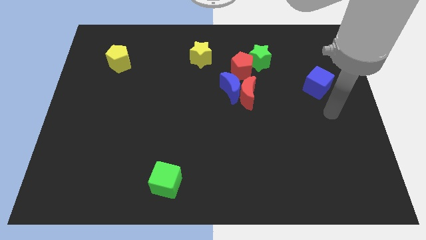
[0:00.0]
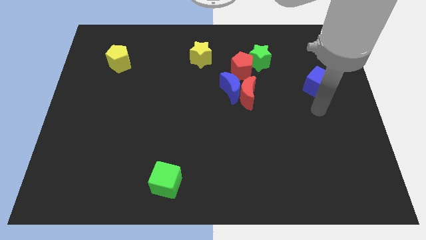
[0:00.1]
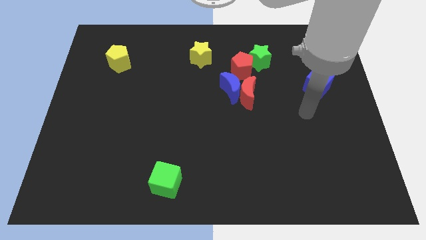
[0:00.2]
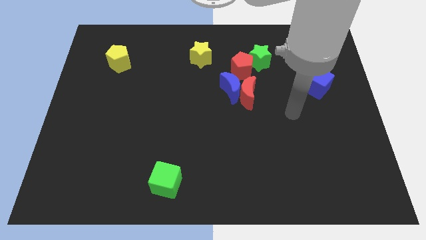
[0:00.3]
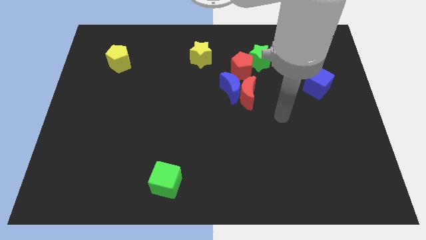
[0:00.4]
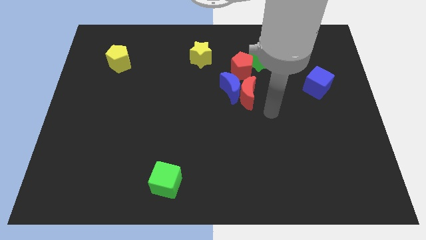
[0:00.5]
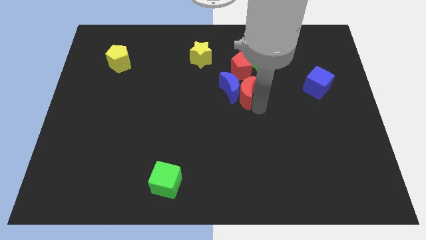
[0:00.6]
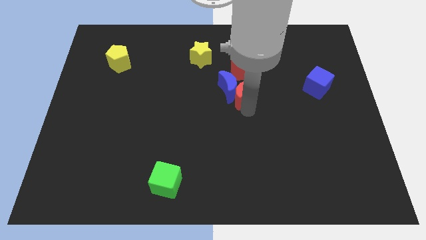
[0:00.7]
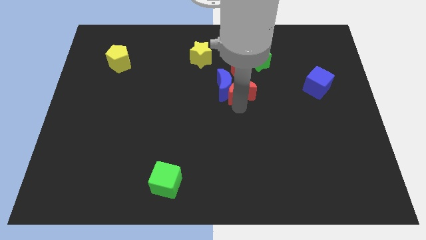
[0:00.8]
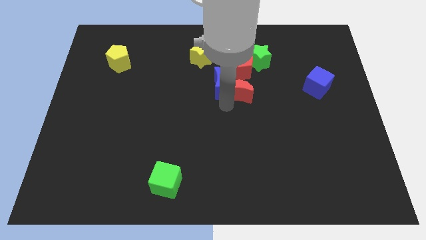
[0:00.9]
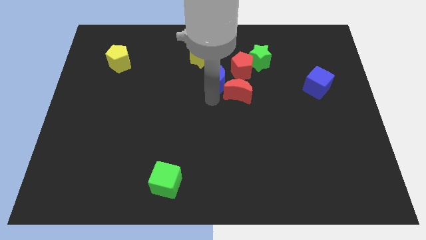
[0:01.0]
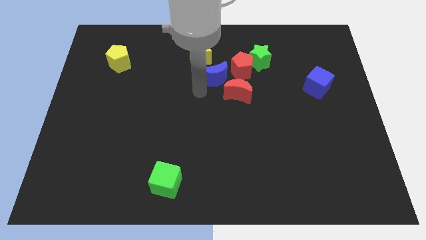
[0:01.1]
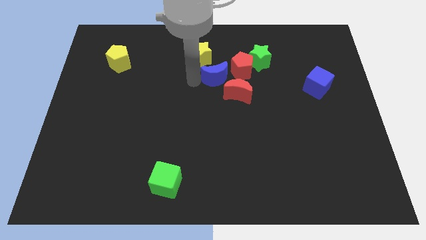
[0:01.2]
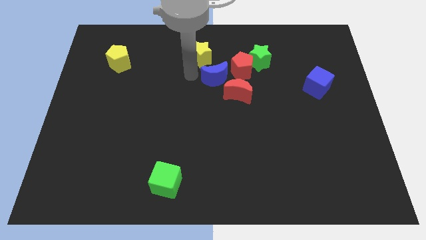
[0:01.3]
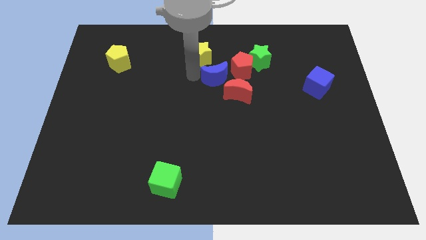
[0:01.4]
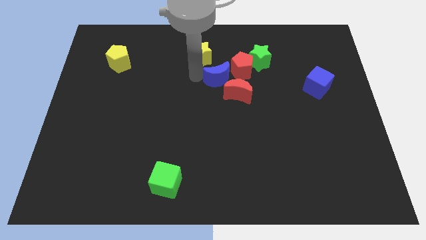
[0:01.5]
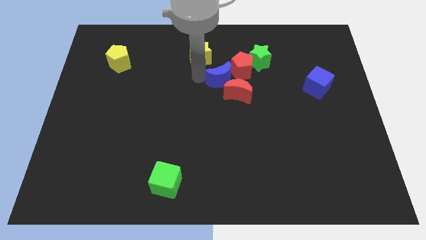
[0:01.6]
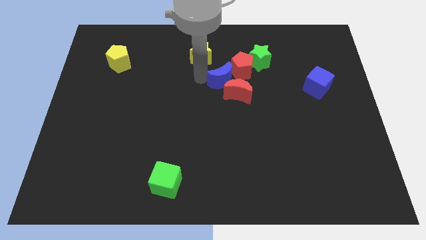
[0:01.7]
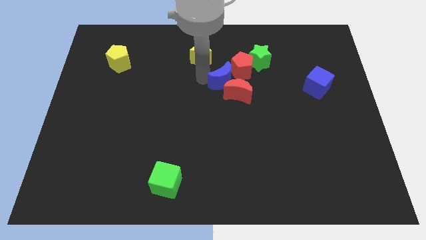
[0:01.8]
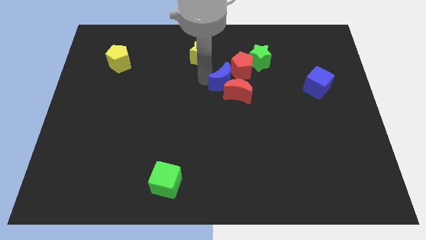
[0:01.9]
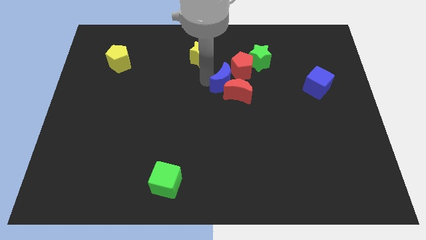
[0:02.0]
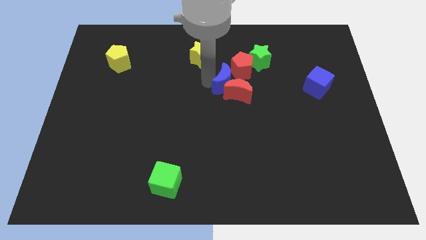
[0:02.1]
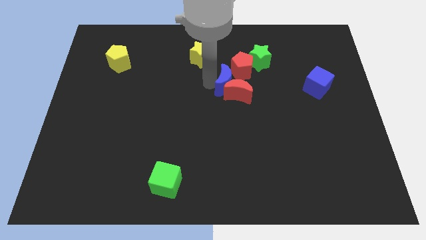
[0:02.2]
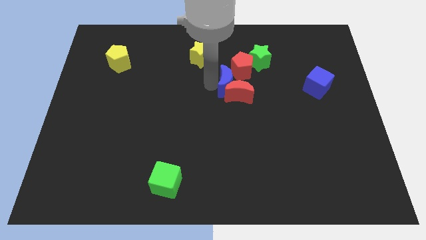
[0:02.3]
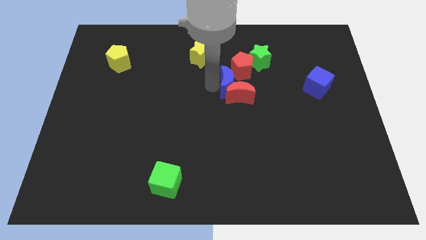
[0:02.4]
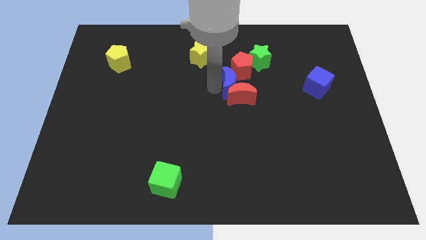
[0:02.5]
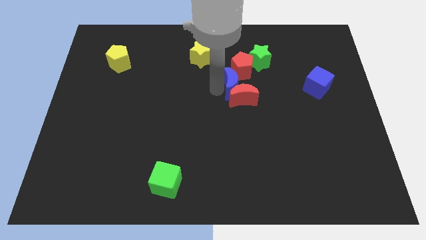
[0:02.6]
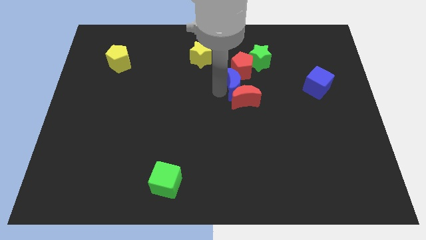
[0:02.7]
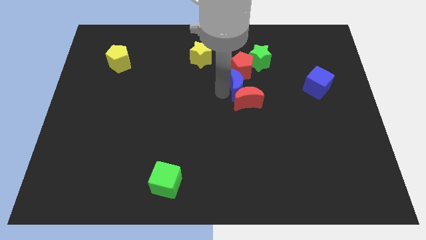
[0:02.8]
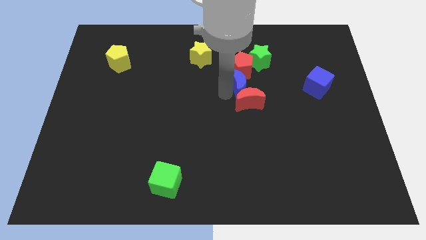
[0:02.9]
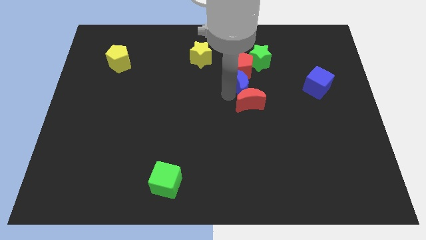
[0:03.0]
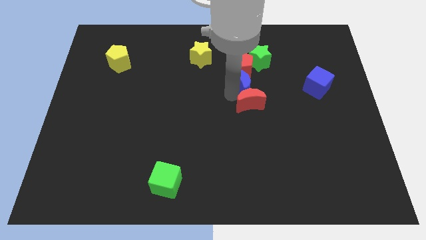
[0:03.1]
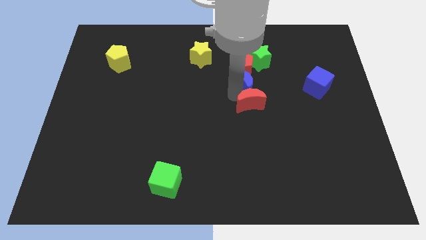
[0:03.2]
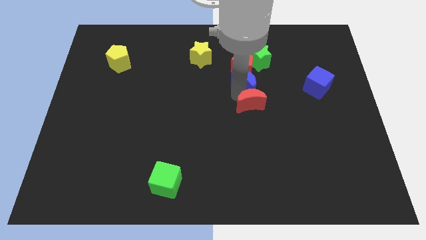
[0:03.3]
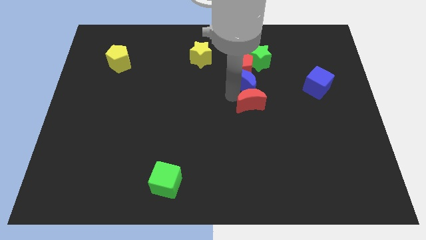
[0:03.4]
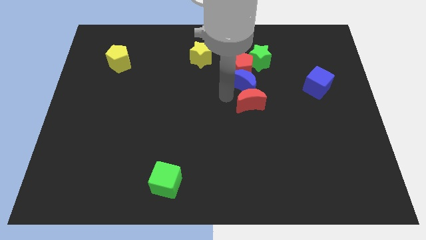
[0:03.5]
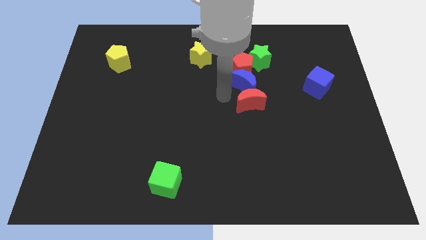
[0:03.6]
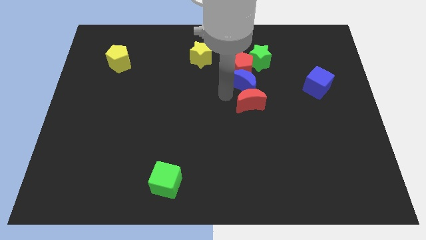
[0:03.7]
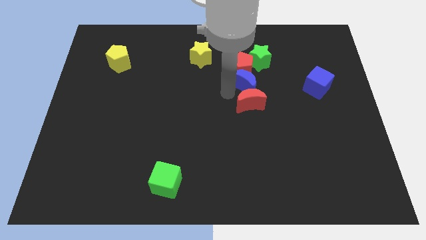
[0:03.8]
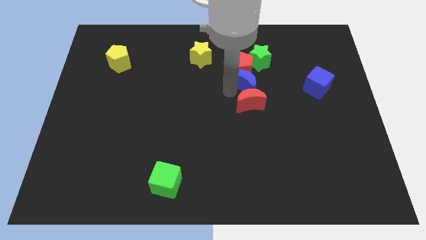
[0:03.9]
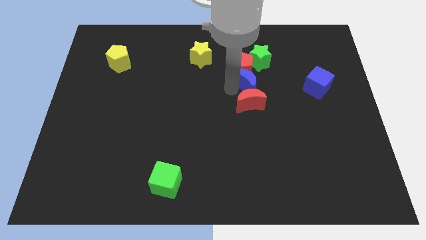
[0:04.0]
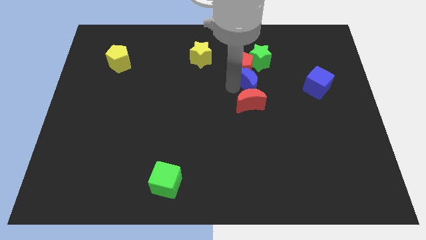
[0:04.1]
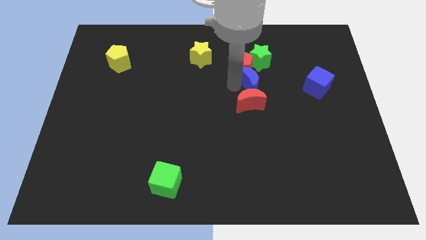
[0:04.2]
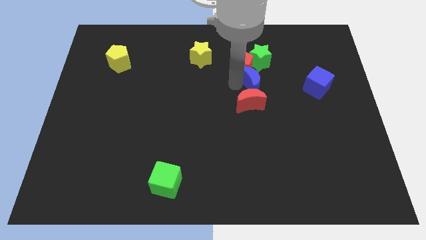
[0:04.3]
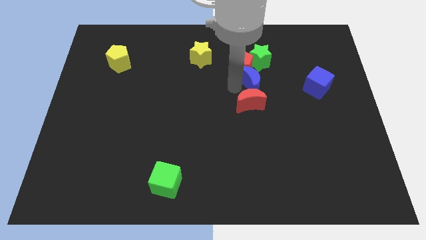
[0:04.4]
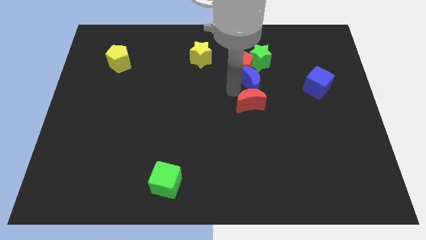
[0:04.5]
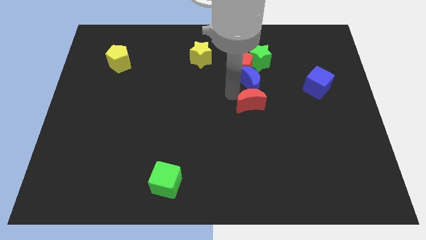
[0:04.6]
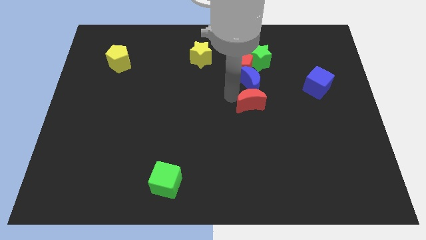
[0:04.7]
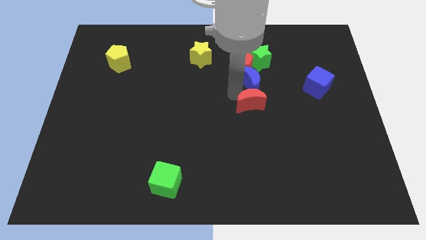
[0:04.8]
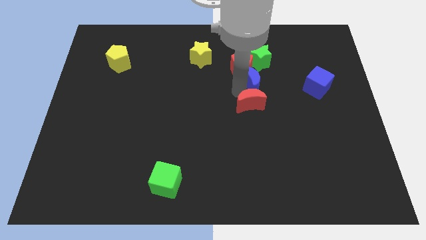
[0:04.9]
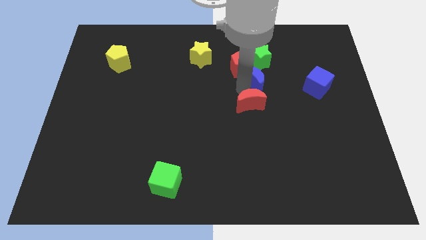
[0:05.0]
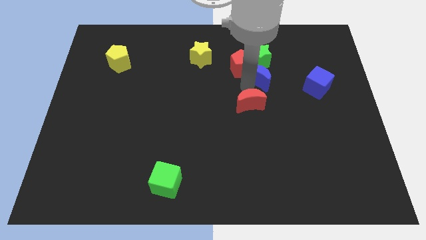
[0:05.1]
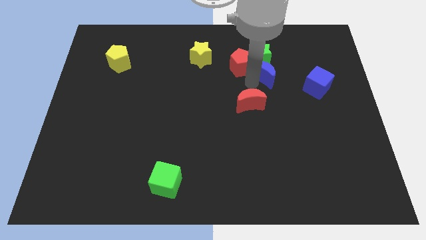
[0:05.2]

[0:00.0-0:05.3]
push the blue moon diagonally down and to the right of the green star

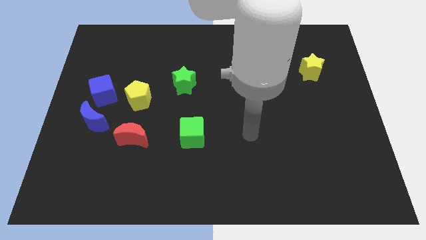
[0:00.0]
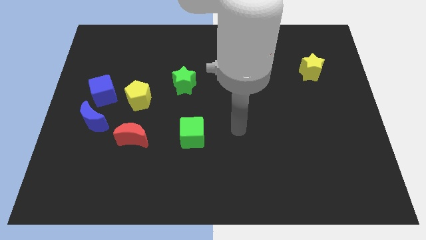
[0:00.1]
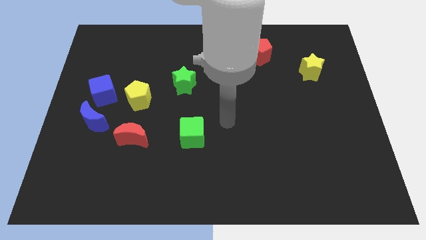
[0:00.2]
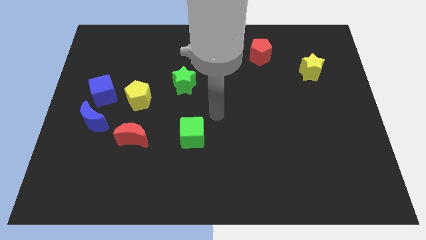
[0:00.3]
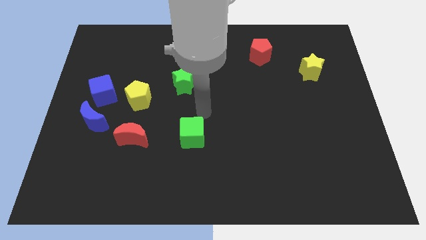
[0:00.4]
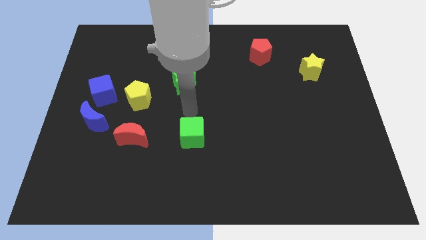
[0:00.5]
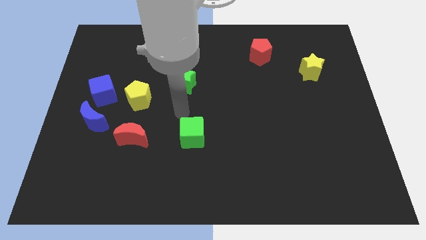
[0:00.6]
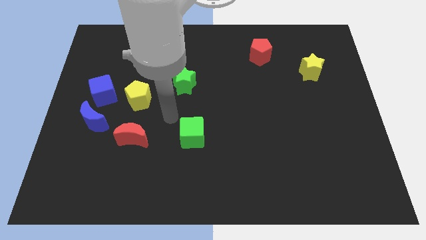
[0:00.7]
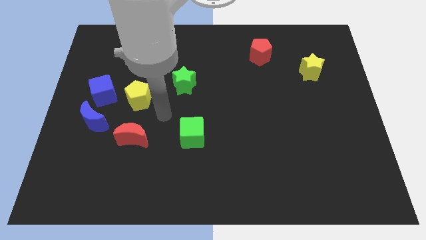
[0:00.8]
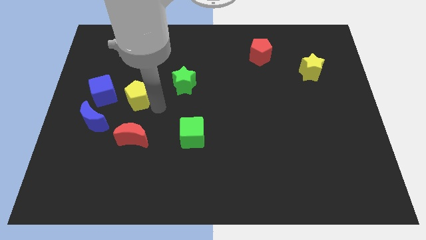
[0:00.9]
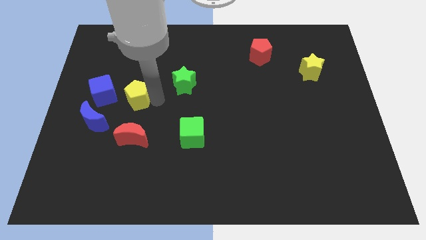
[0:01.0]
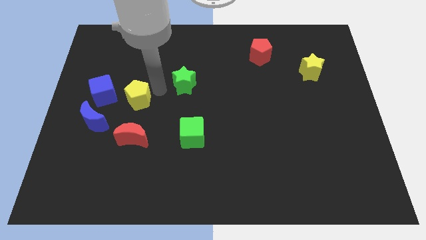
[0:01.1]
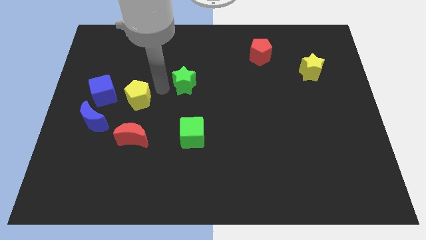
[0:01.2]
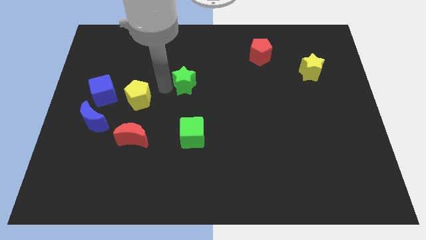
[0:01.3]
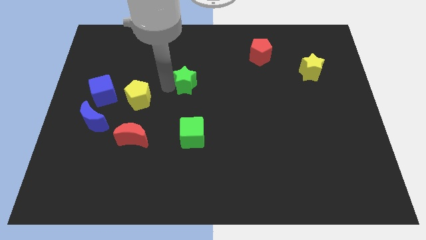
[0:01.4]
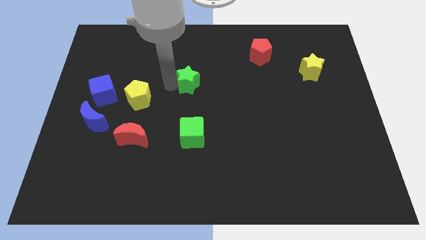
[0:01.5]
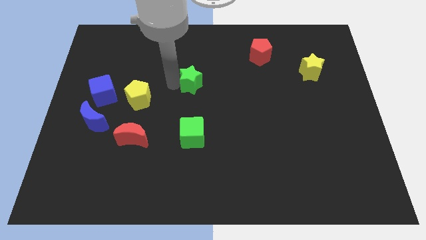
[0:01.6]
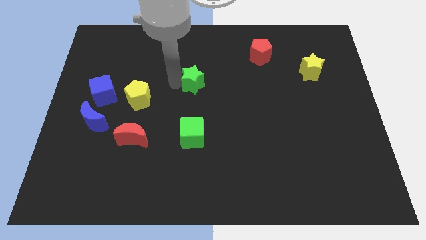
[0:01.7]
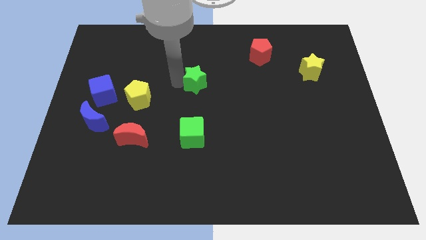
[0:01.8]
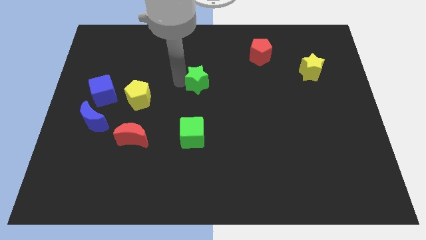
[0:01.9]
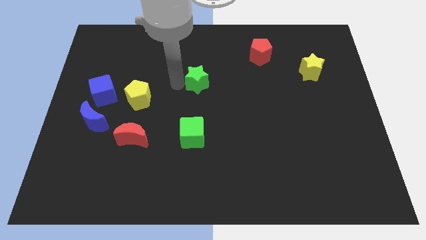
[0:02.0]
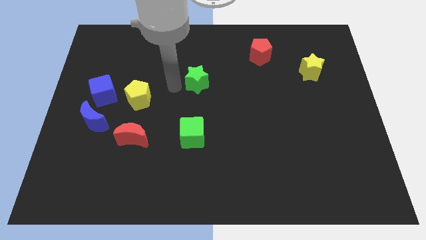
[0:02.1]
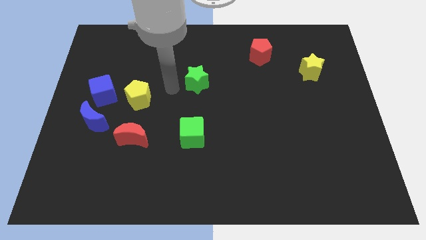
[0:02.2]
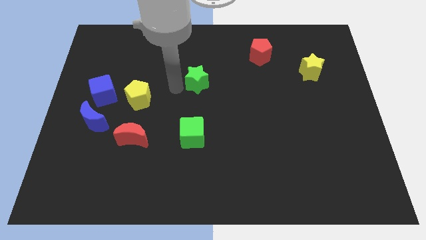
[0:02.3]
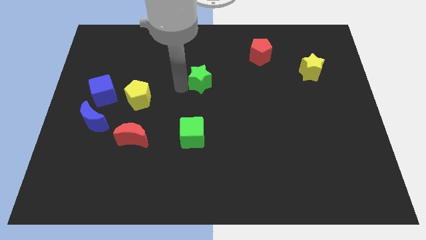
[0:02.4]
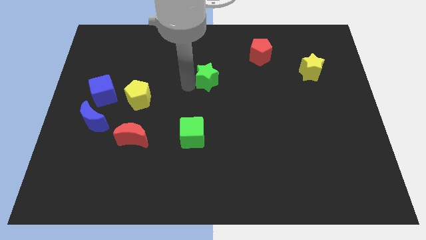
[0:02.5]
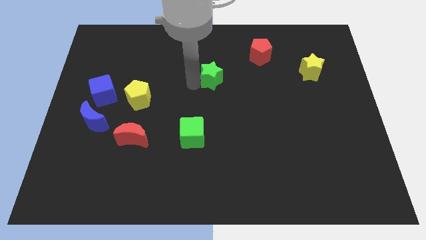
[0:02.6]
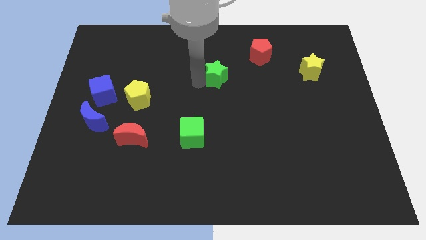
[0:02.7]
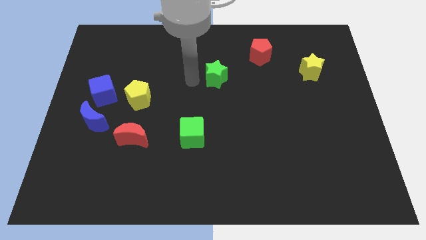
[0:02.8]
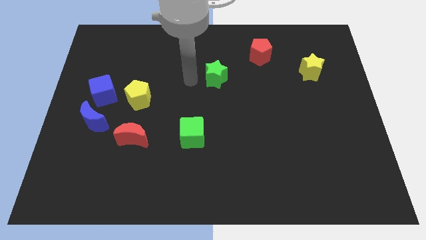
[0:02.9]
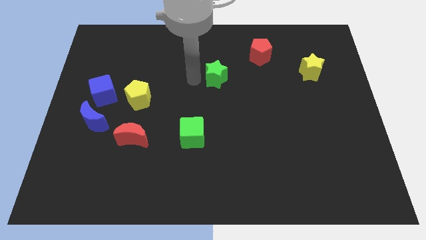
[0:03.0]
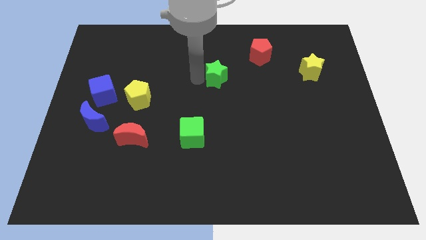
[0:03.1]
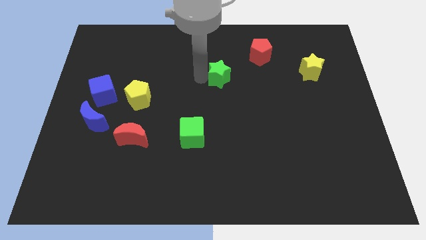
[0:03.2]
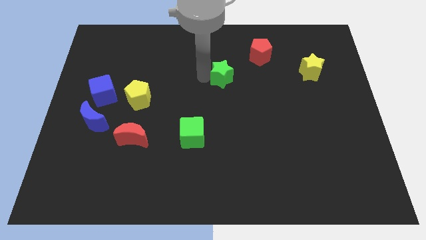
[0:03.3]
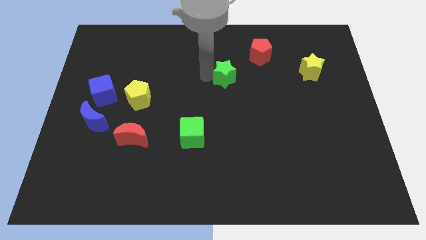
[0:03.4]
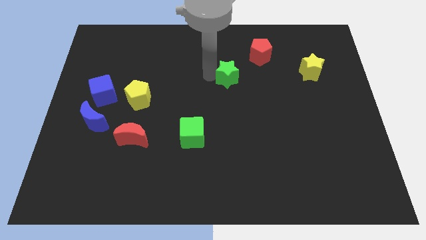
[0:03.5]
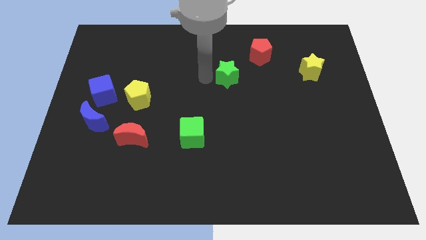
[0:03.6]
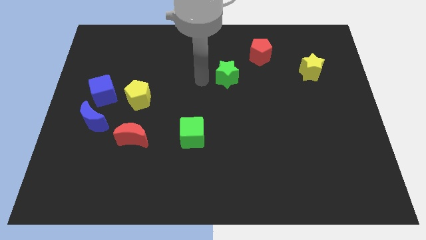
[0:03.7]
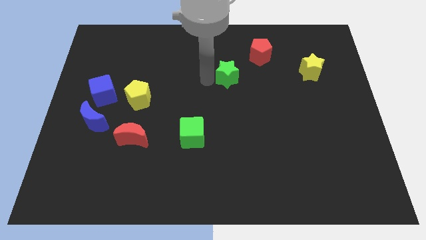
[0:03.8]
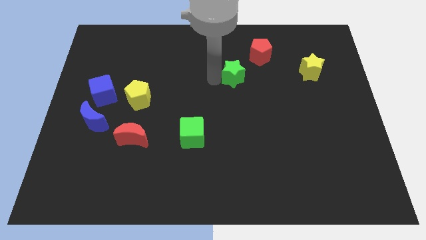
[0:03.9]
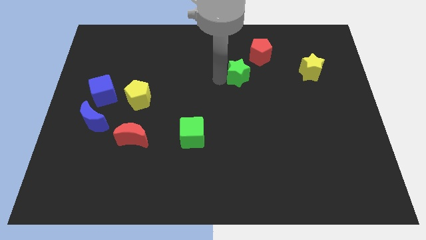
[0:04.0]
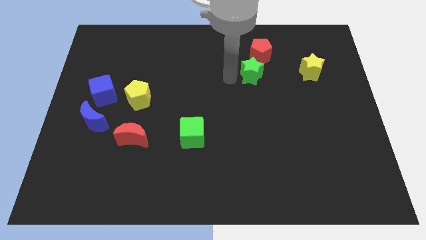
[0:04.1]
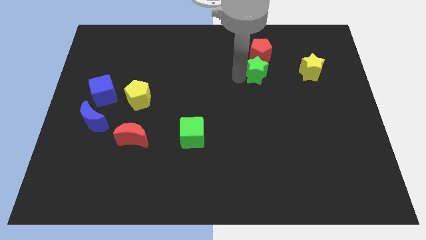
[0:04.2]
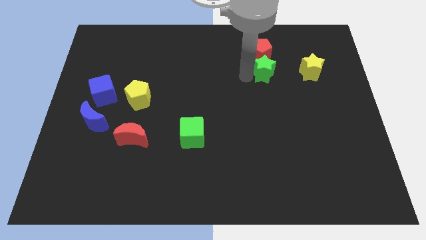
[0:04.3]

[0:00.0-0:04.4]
slide the green star diagonally down and to the right of the red pentagon
